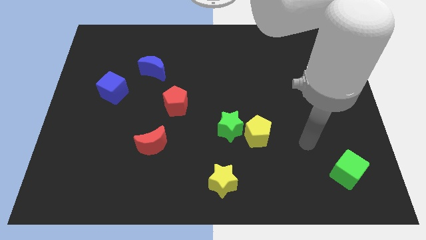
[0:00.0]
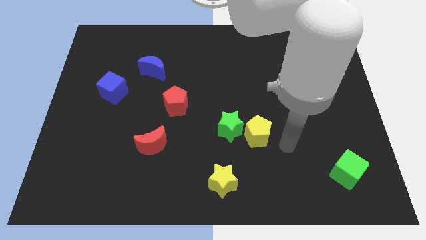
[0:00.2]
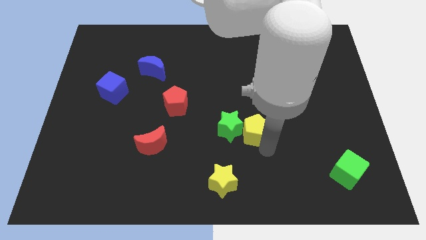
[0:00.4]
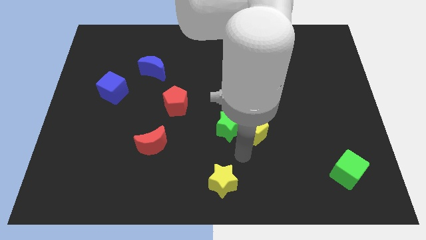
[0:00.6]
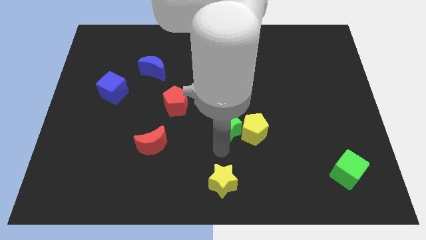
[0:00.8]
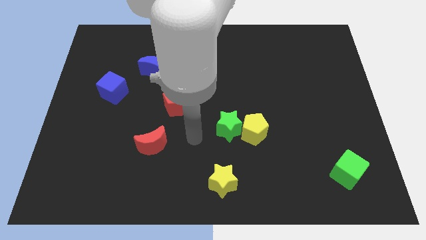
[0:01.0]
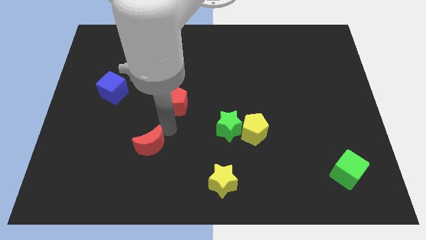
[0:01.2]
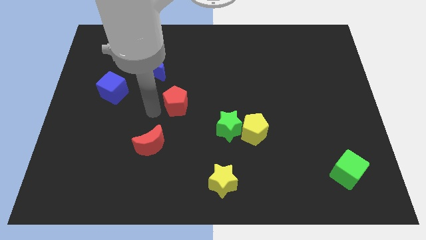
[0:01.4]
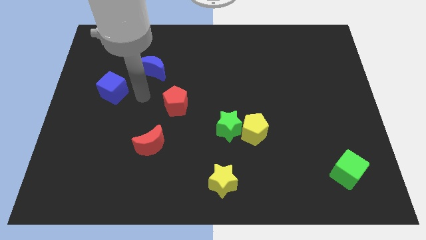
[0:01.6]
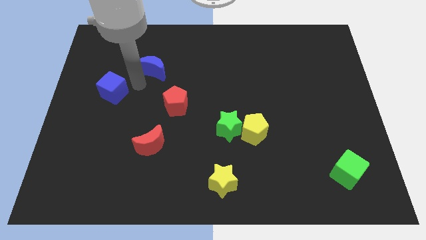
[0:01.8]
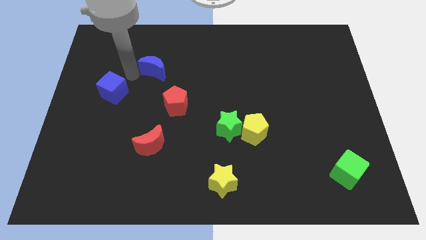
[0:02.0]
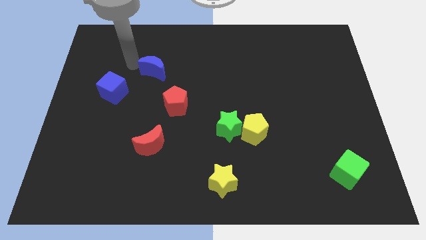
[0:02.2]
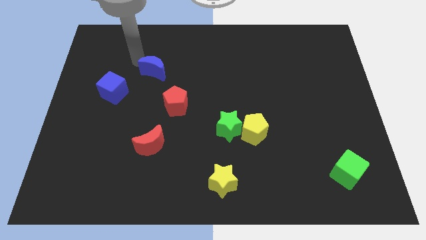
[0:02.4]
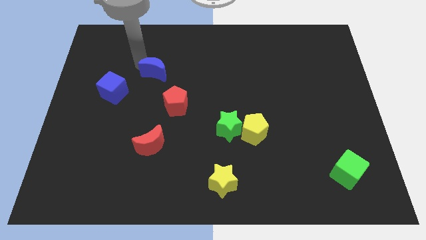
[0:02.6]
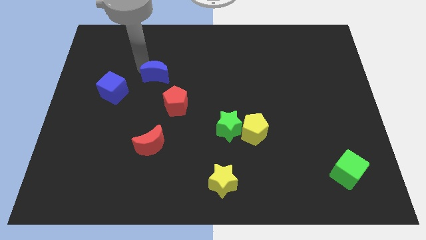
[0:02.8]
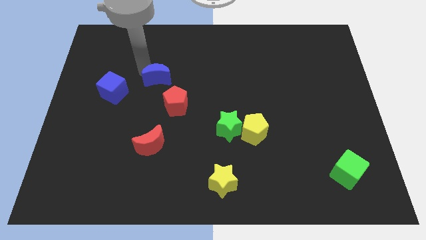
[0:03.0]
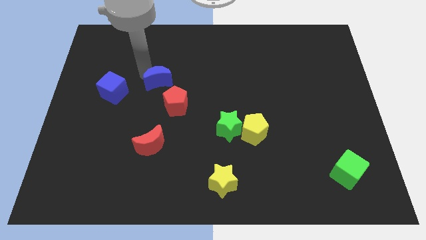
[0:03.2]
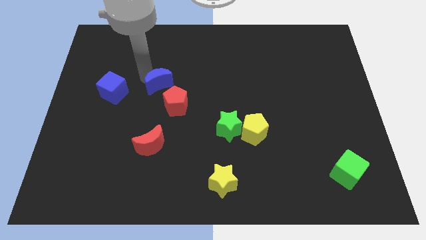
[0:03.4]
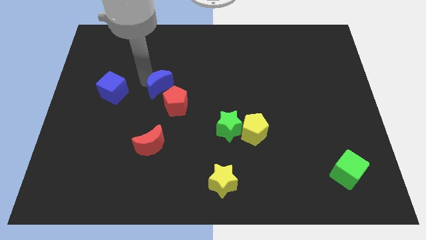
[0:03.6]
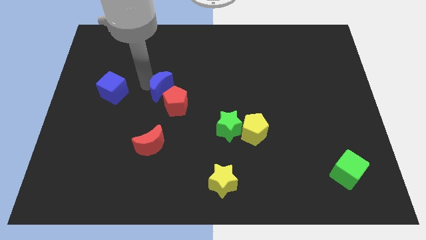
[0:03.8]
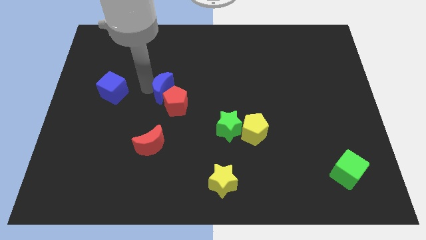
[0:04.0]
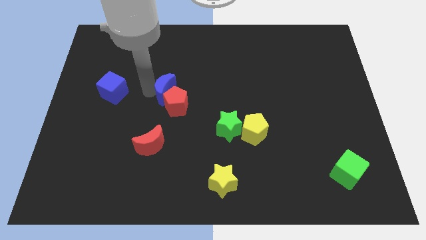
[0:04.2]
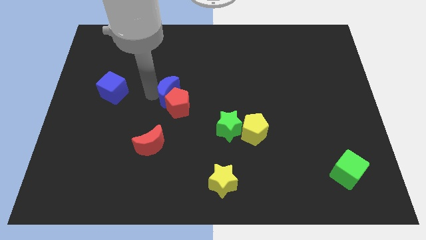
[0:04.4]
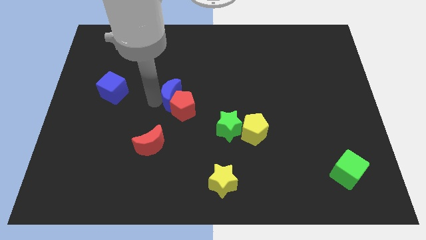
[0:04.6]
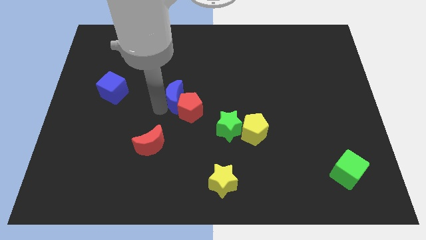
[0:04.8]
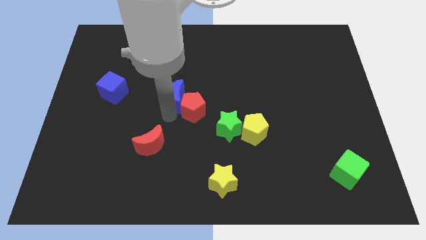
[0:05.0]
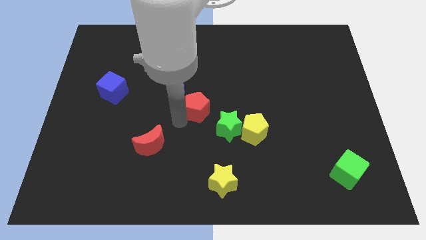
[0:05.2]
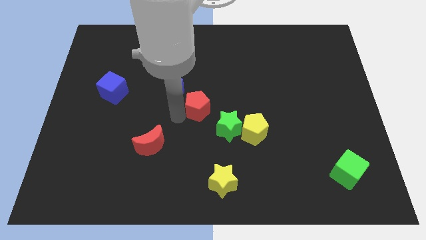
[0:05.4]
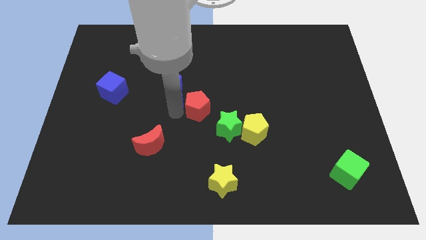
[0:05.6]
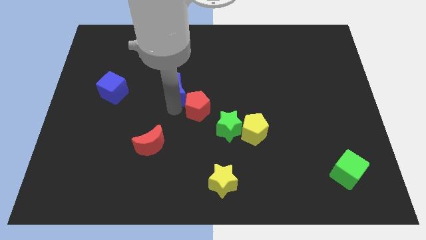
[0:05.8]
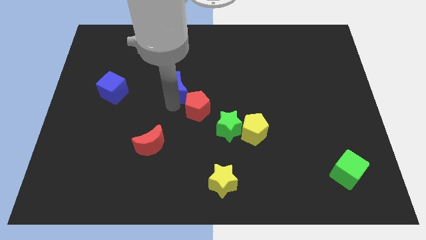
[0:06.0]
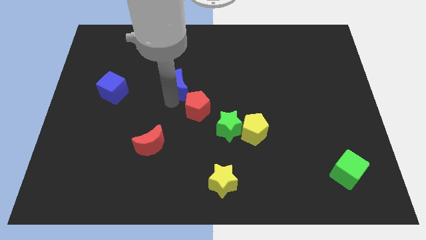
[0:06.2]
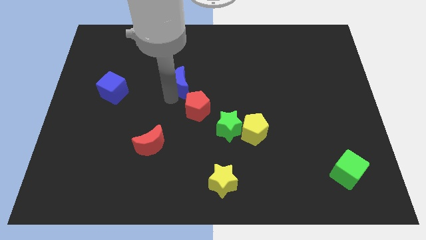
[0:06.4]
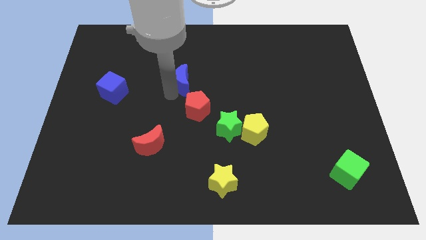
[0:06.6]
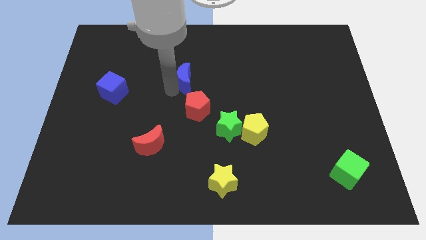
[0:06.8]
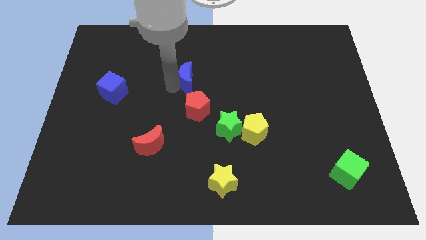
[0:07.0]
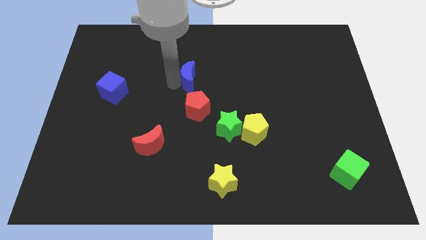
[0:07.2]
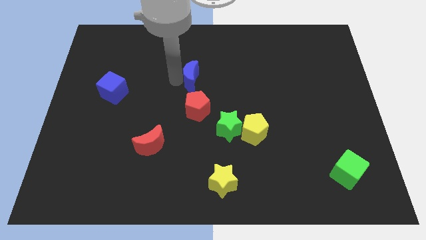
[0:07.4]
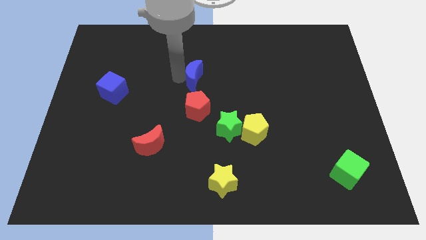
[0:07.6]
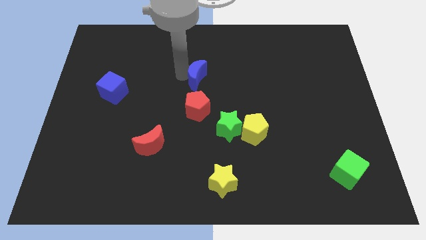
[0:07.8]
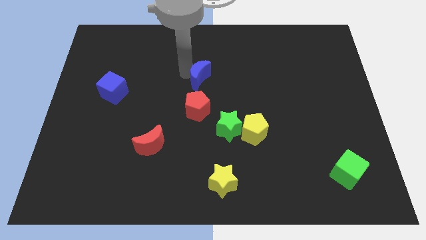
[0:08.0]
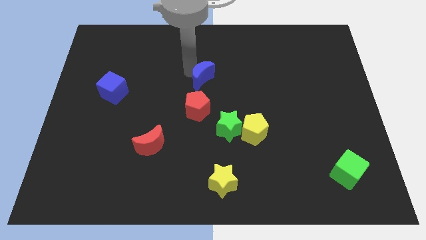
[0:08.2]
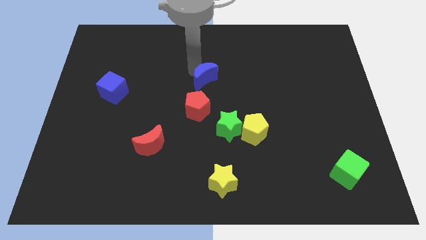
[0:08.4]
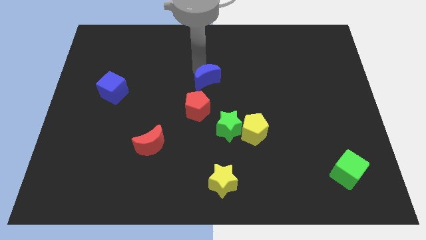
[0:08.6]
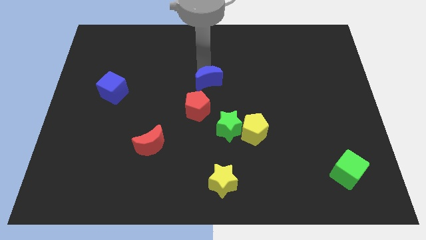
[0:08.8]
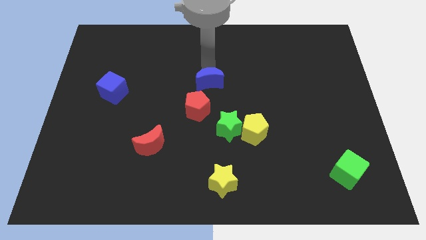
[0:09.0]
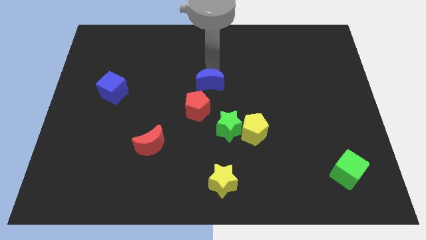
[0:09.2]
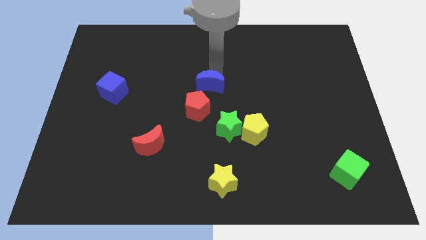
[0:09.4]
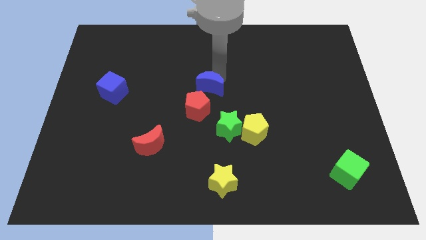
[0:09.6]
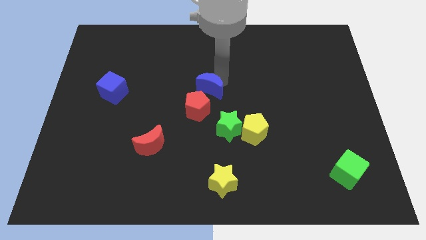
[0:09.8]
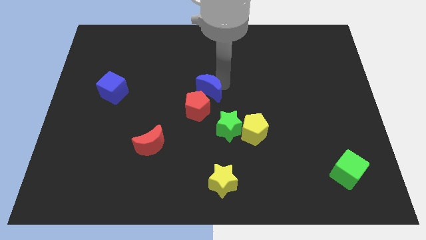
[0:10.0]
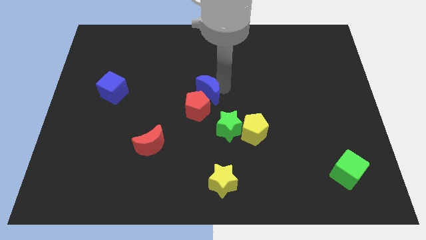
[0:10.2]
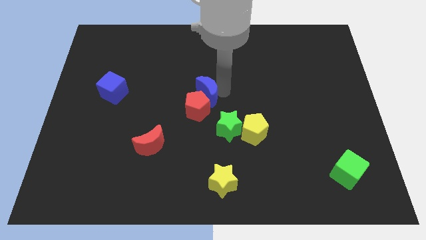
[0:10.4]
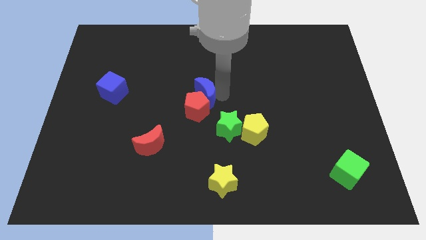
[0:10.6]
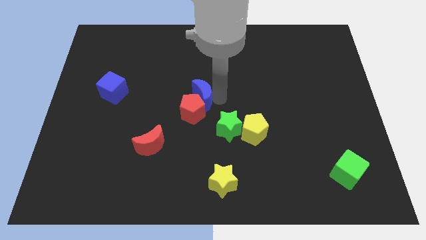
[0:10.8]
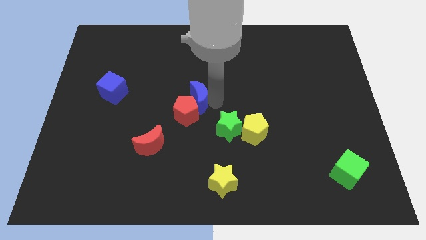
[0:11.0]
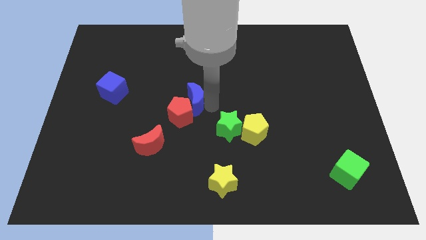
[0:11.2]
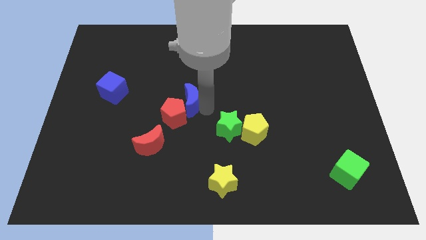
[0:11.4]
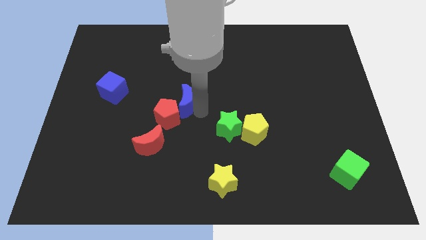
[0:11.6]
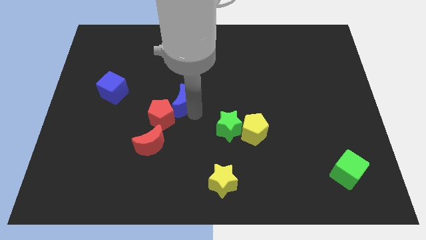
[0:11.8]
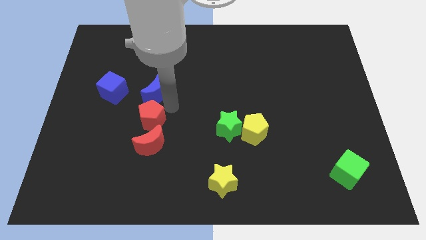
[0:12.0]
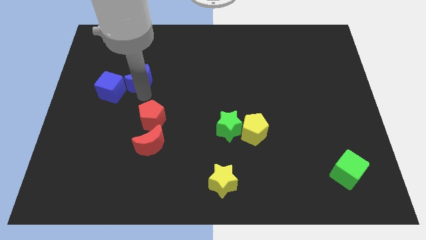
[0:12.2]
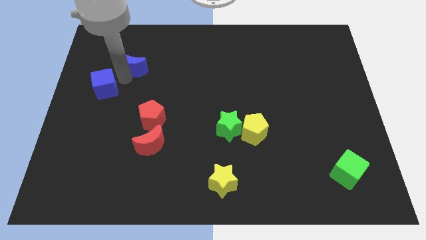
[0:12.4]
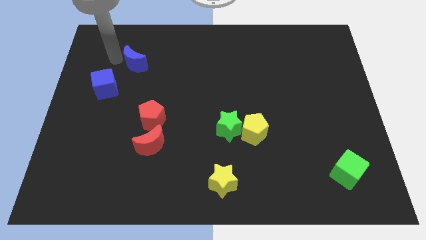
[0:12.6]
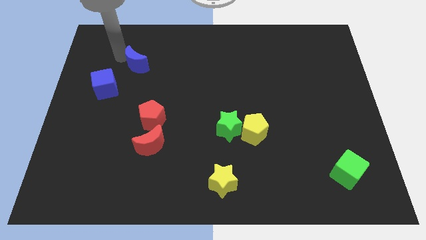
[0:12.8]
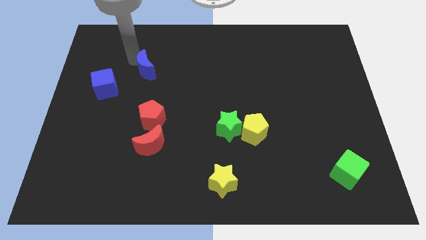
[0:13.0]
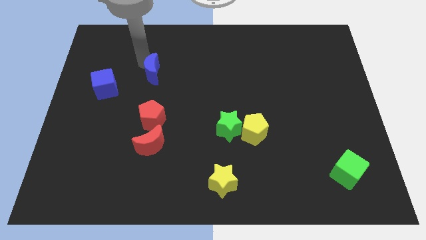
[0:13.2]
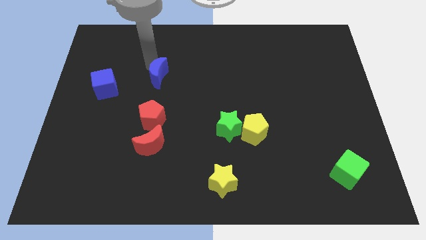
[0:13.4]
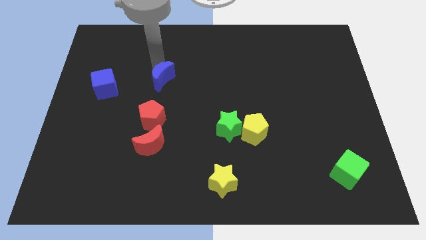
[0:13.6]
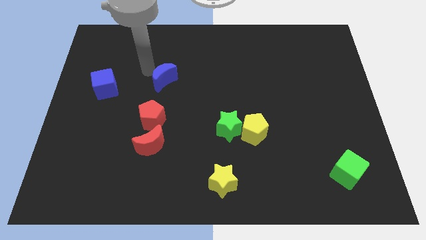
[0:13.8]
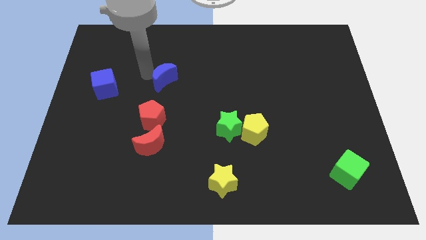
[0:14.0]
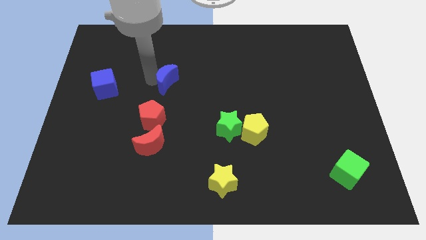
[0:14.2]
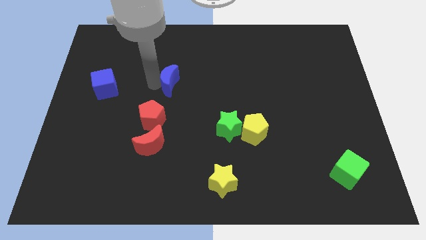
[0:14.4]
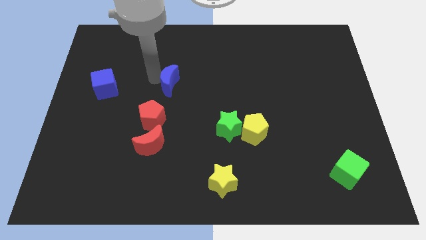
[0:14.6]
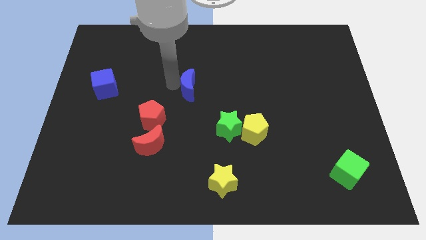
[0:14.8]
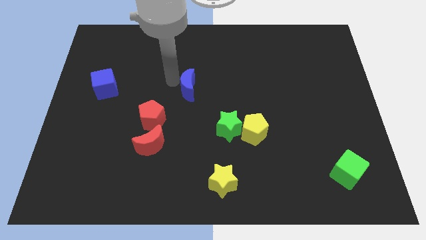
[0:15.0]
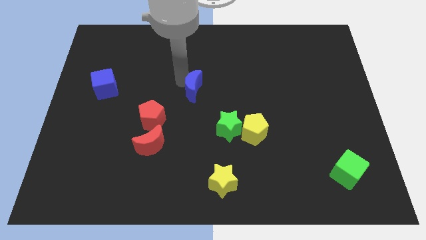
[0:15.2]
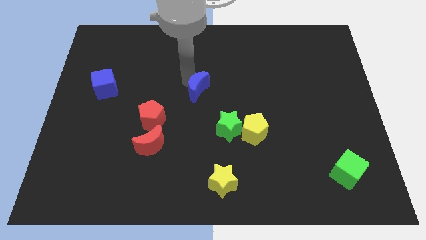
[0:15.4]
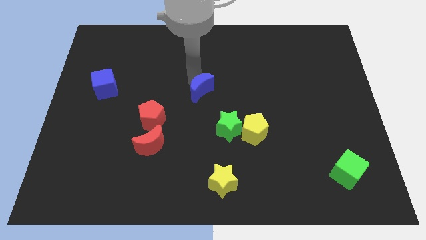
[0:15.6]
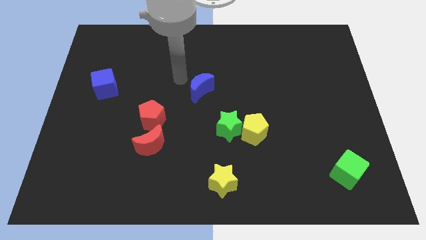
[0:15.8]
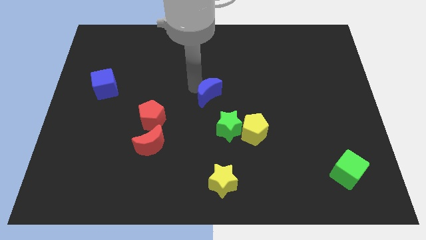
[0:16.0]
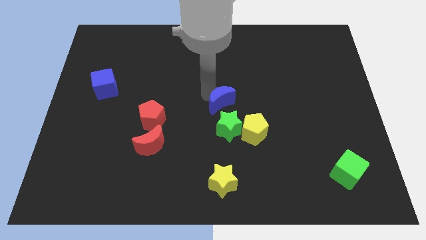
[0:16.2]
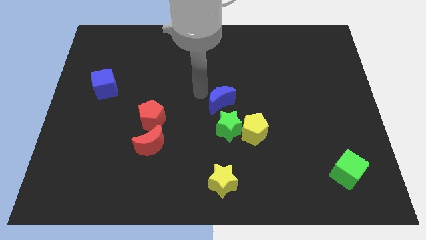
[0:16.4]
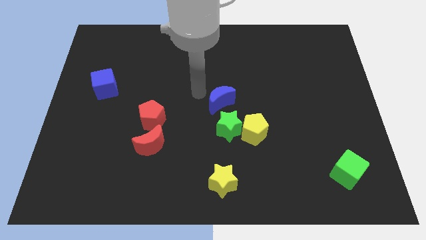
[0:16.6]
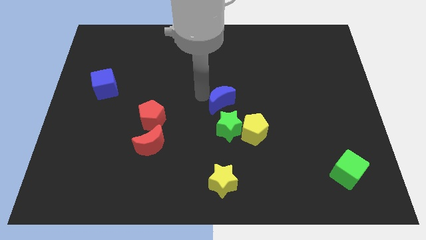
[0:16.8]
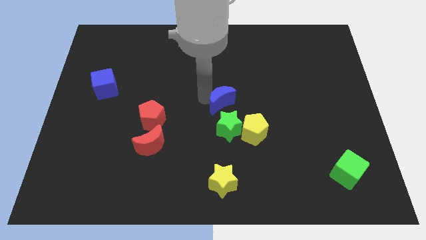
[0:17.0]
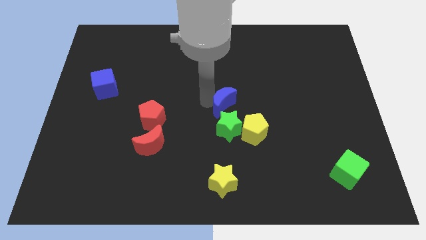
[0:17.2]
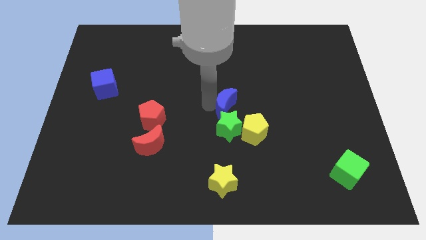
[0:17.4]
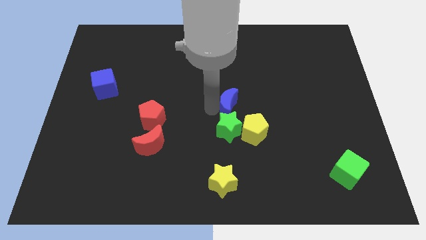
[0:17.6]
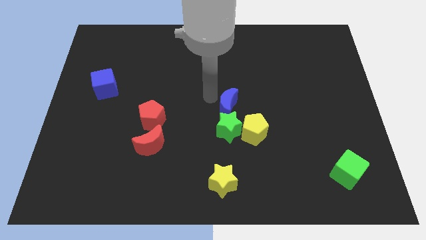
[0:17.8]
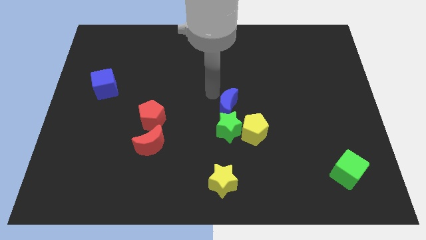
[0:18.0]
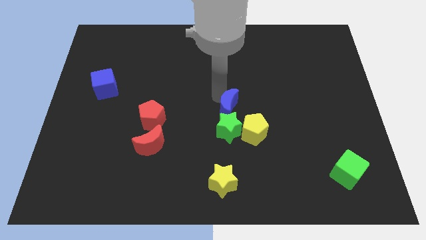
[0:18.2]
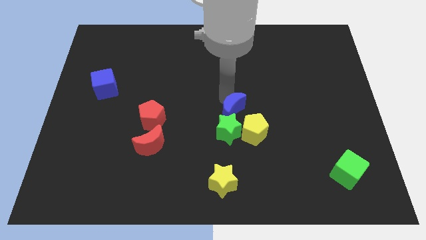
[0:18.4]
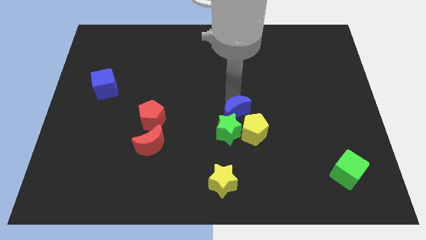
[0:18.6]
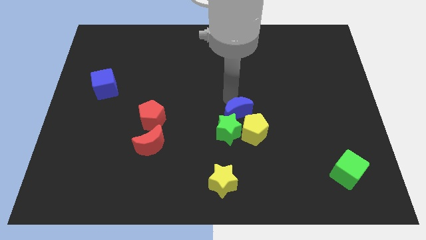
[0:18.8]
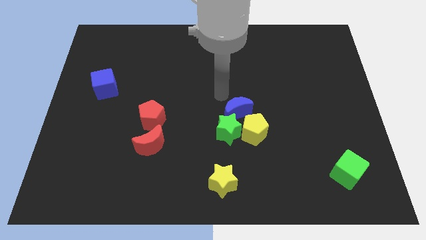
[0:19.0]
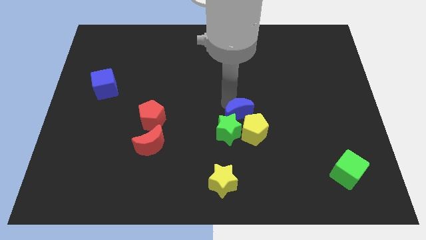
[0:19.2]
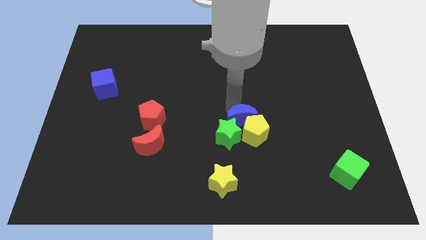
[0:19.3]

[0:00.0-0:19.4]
put the blue moon next to the yellow pentagon
